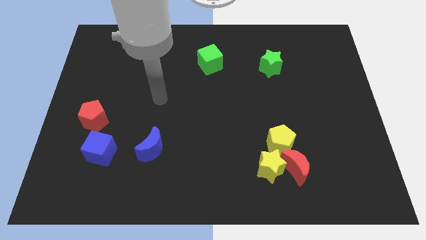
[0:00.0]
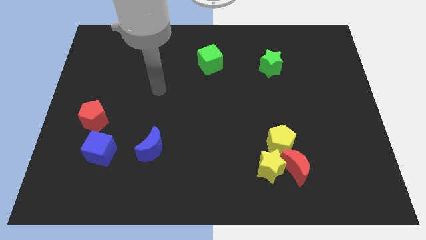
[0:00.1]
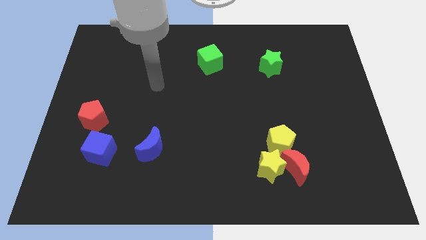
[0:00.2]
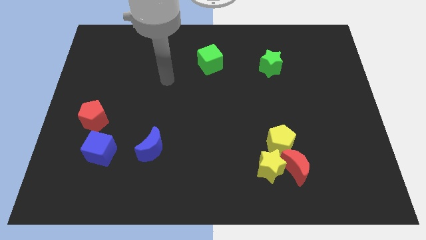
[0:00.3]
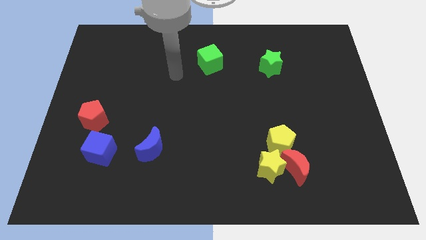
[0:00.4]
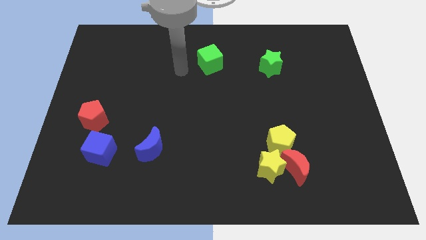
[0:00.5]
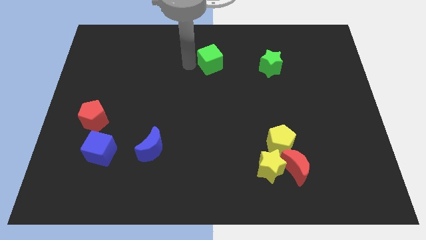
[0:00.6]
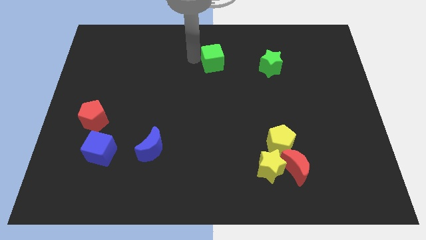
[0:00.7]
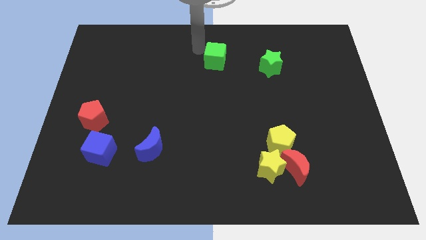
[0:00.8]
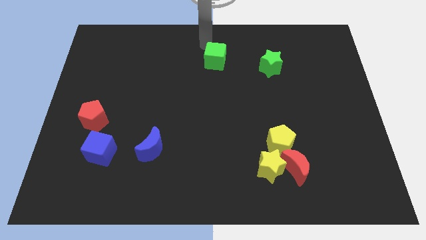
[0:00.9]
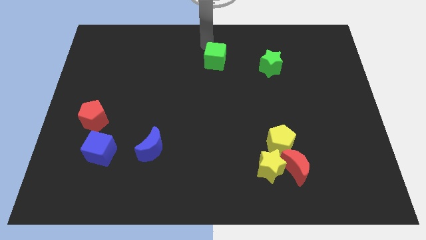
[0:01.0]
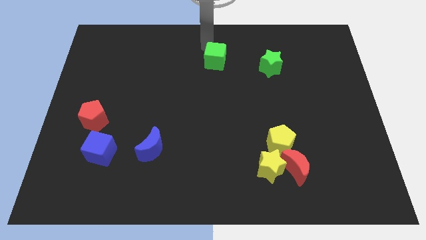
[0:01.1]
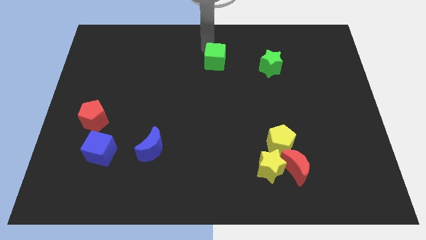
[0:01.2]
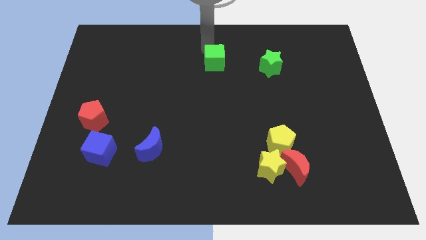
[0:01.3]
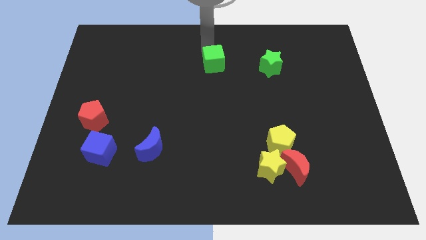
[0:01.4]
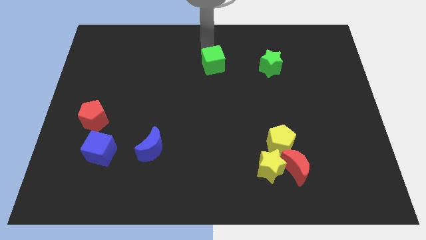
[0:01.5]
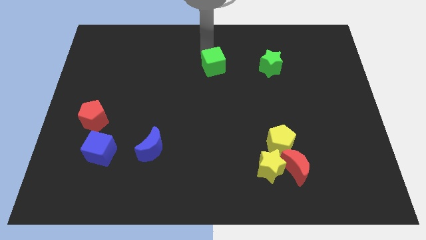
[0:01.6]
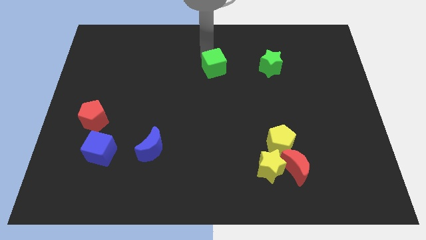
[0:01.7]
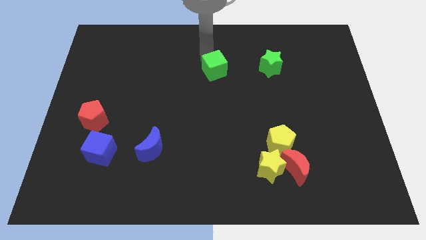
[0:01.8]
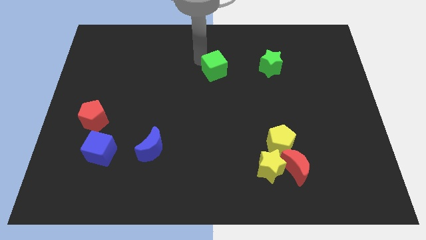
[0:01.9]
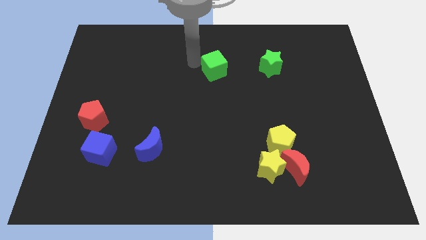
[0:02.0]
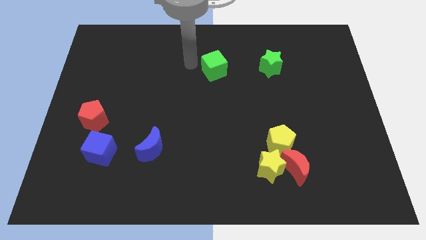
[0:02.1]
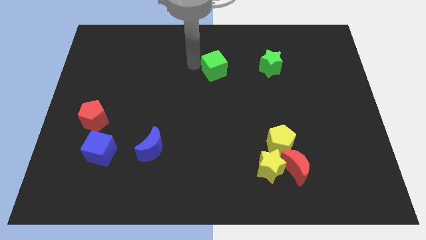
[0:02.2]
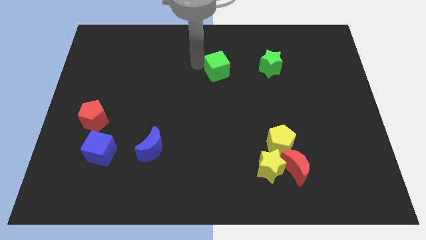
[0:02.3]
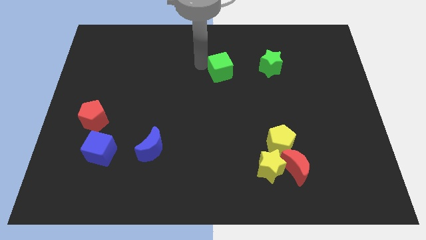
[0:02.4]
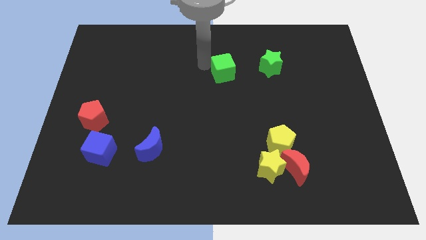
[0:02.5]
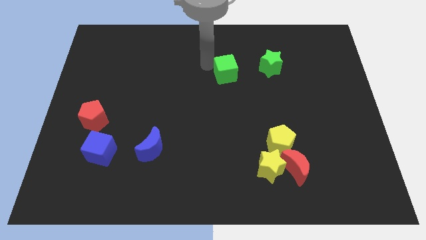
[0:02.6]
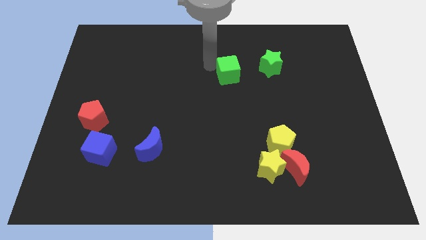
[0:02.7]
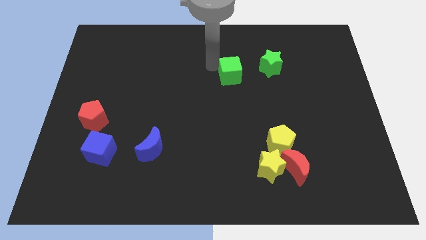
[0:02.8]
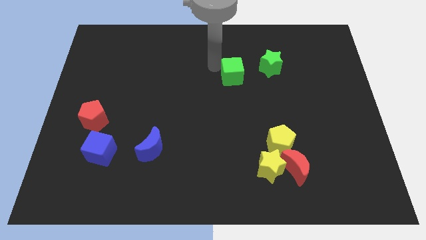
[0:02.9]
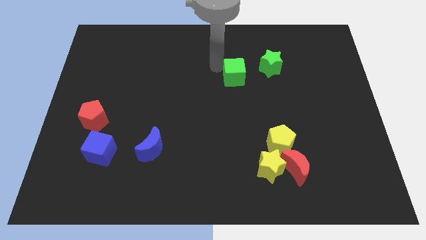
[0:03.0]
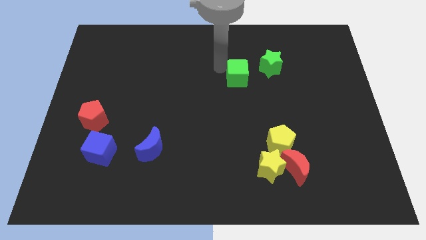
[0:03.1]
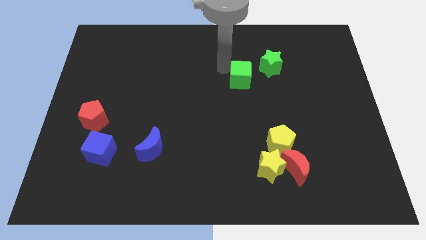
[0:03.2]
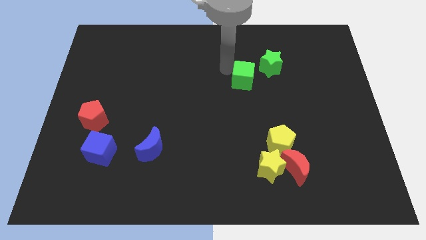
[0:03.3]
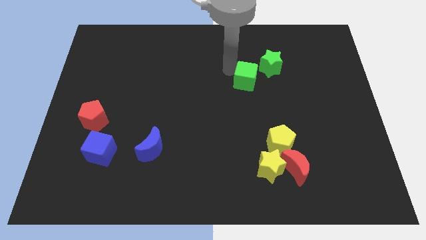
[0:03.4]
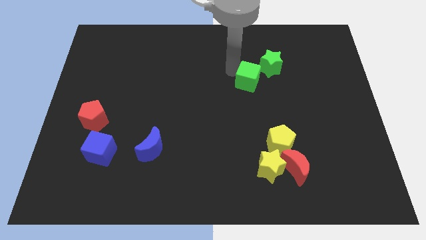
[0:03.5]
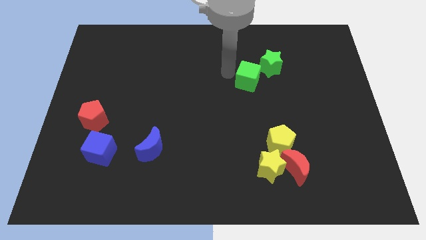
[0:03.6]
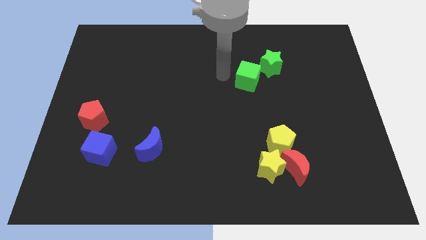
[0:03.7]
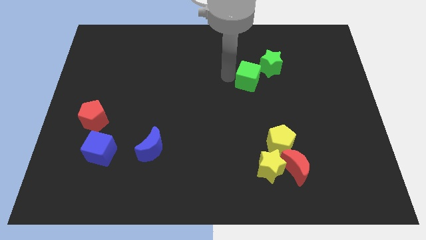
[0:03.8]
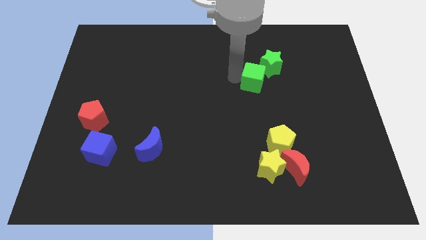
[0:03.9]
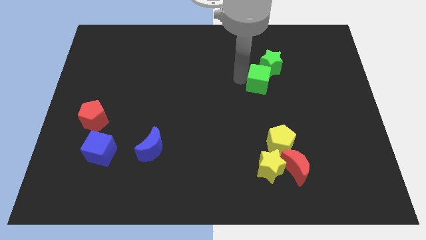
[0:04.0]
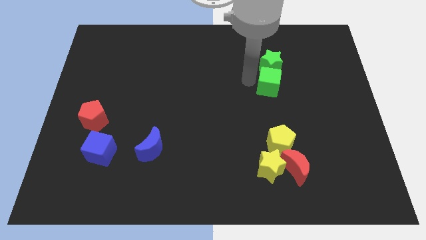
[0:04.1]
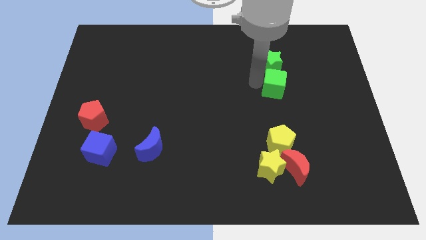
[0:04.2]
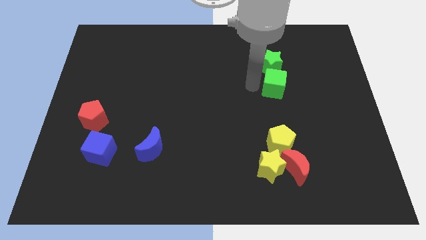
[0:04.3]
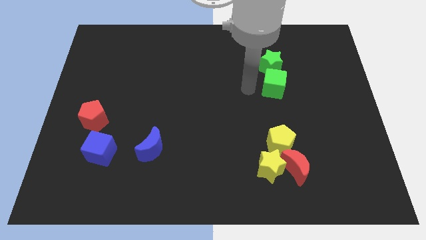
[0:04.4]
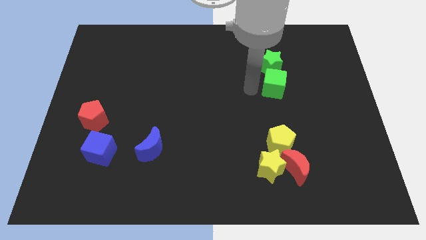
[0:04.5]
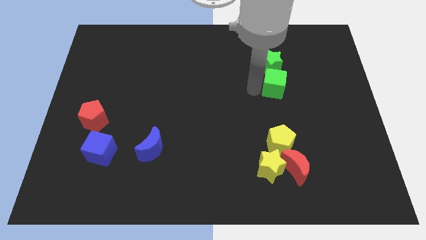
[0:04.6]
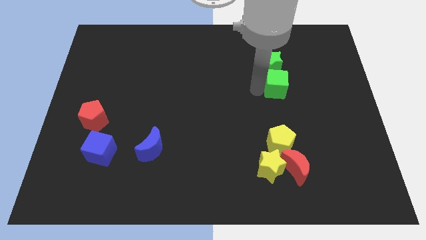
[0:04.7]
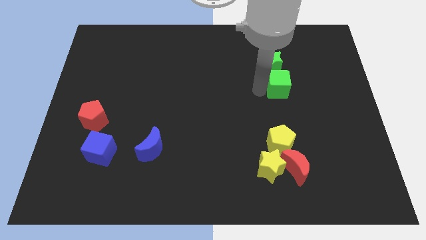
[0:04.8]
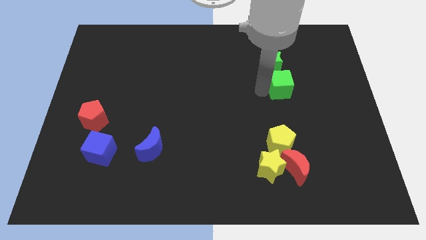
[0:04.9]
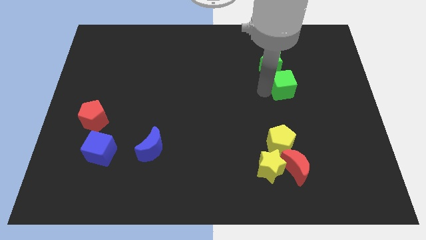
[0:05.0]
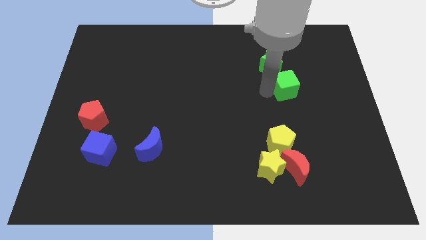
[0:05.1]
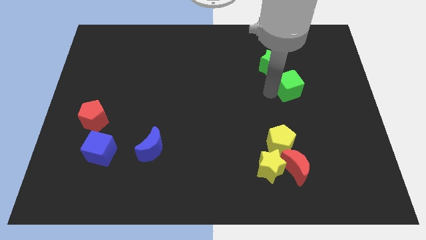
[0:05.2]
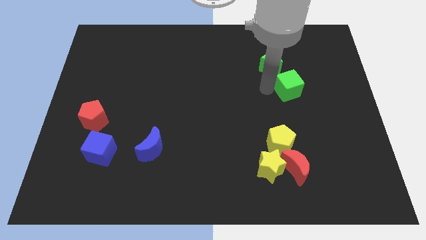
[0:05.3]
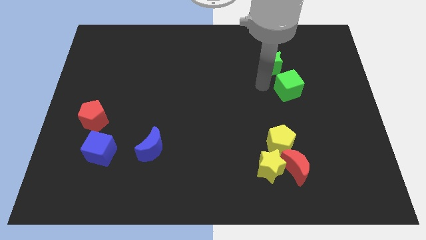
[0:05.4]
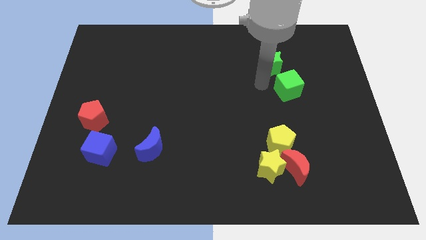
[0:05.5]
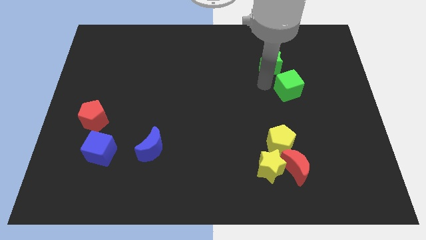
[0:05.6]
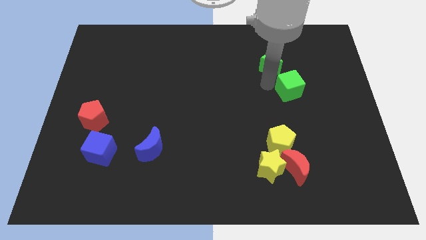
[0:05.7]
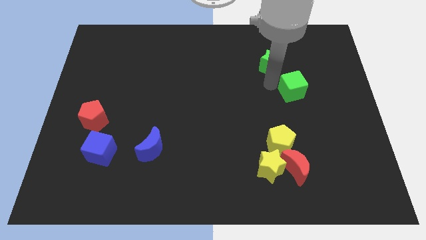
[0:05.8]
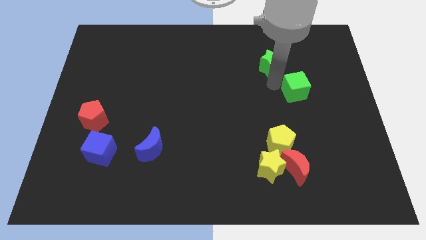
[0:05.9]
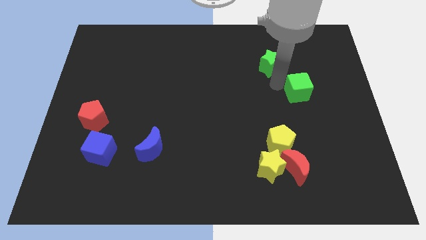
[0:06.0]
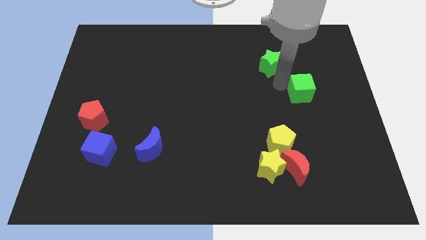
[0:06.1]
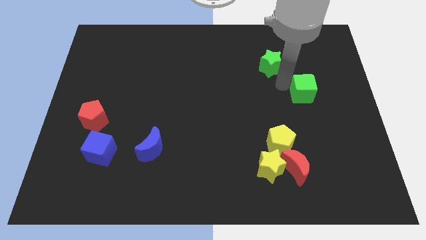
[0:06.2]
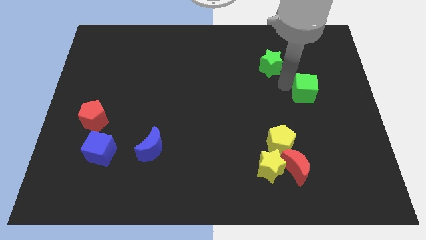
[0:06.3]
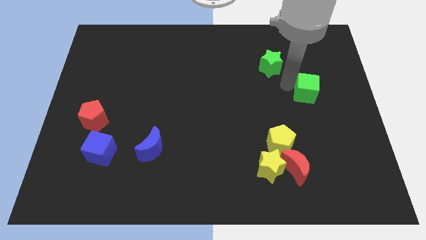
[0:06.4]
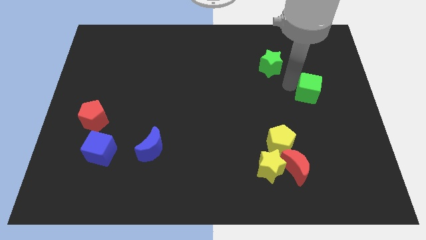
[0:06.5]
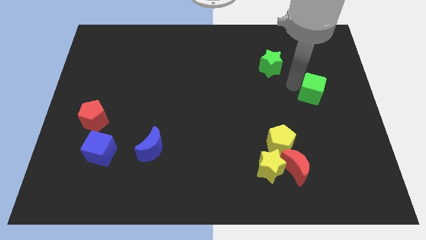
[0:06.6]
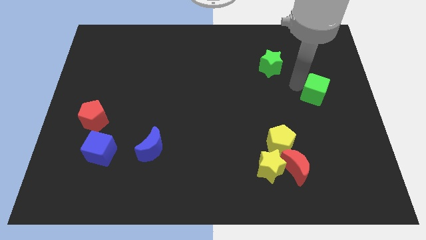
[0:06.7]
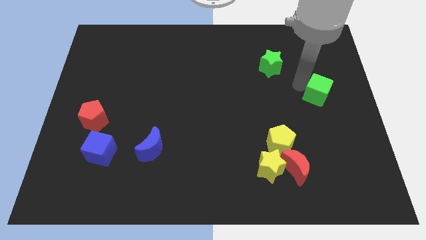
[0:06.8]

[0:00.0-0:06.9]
put the green cube to the center right

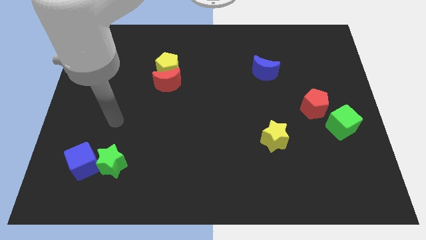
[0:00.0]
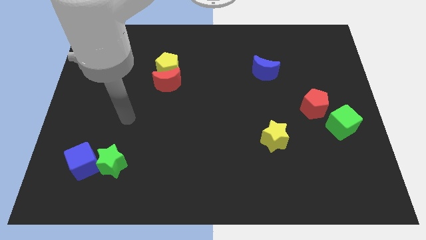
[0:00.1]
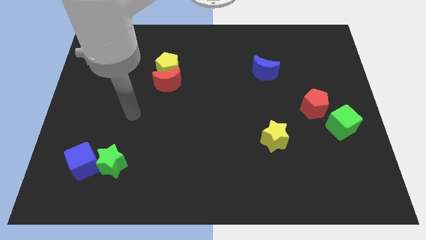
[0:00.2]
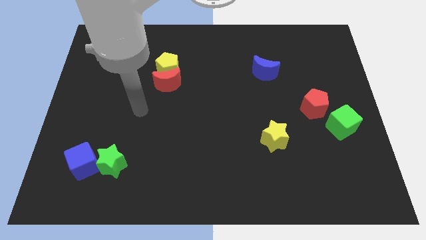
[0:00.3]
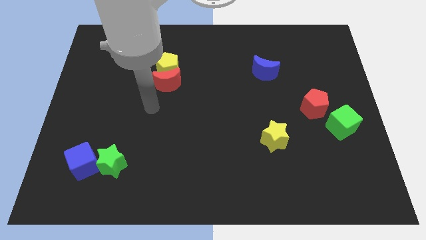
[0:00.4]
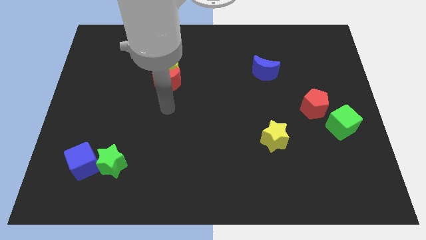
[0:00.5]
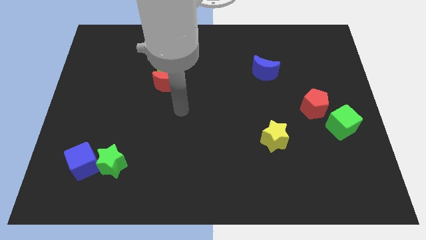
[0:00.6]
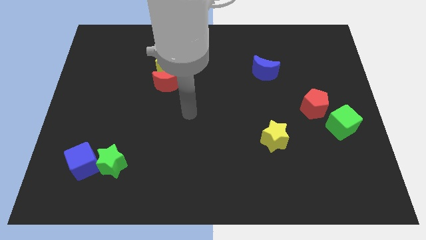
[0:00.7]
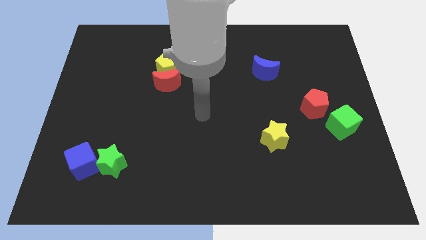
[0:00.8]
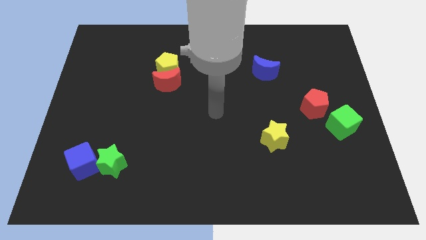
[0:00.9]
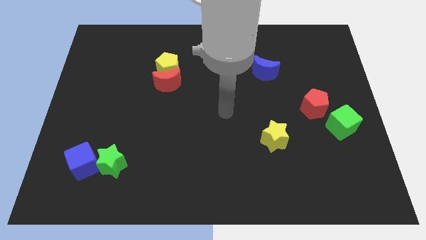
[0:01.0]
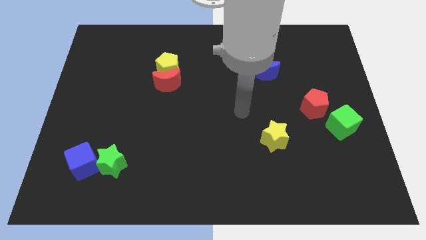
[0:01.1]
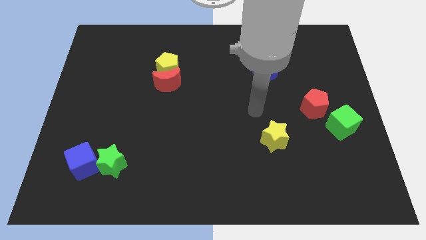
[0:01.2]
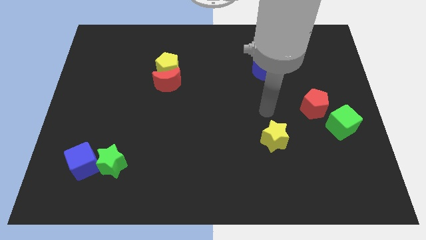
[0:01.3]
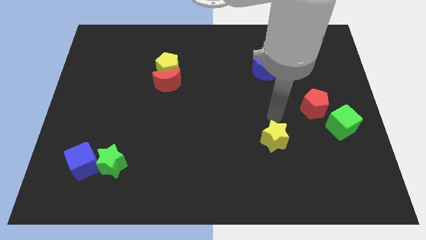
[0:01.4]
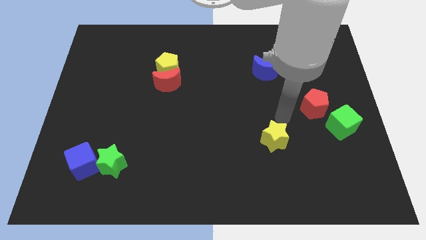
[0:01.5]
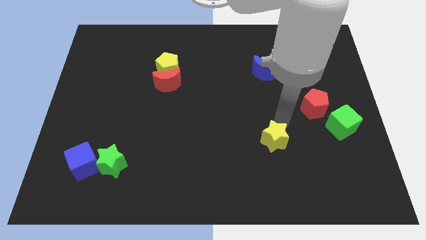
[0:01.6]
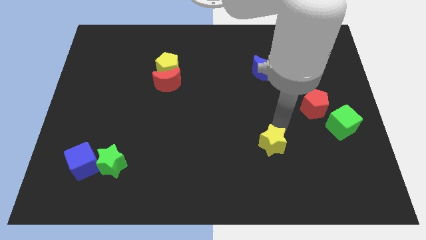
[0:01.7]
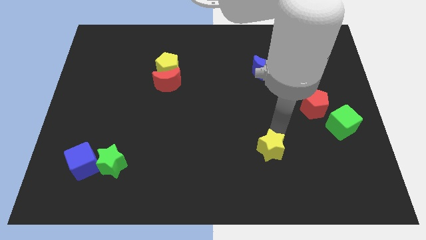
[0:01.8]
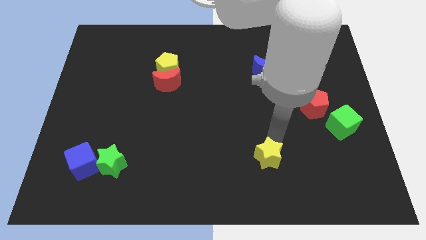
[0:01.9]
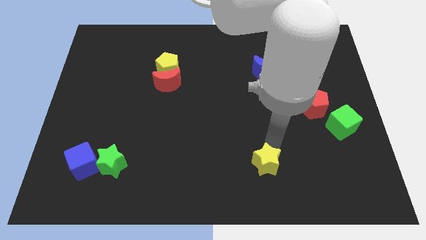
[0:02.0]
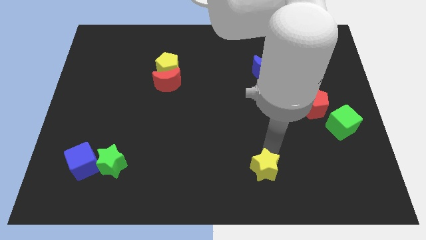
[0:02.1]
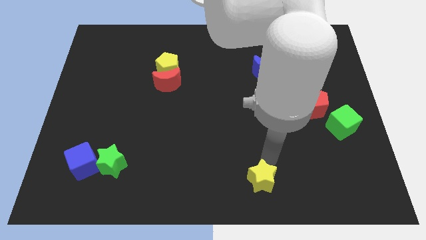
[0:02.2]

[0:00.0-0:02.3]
put the yellow star to the bottom
